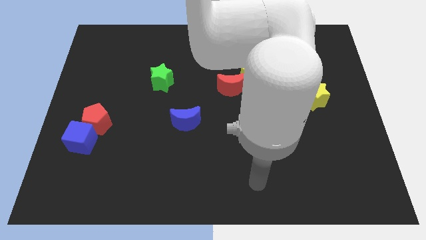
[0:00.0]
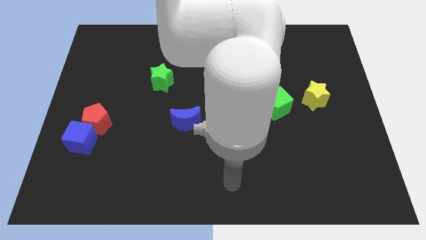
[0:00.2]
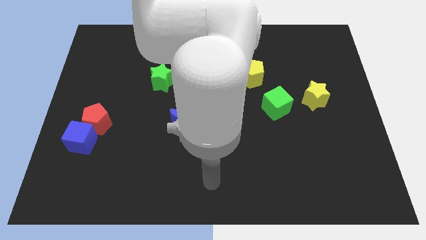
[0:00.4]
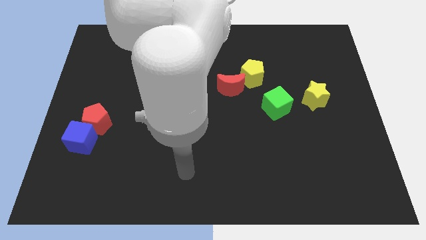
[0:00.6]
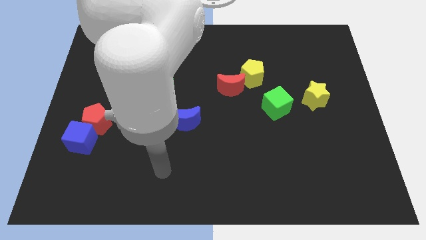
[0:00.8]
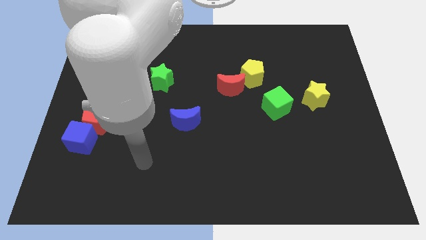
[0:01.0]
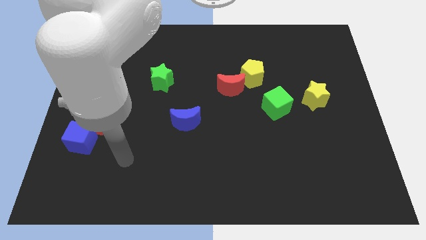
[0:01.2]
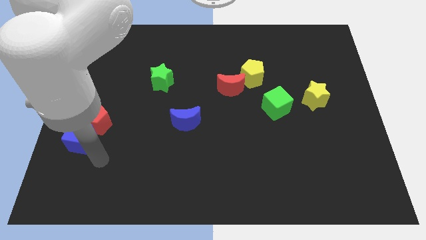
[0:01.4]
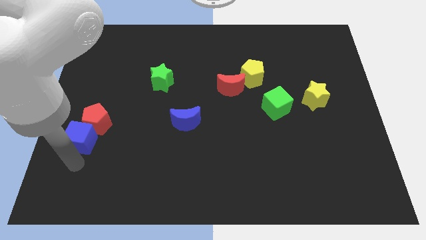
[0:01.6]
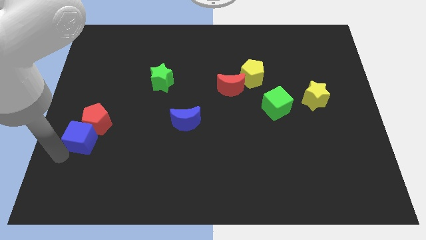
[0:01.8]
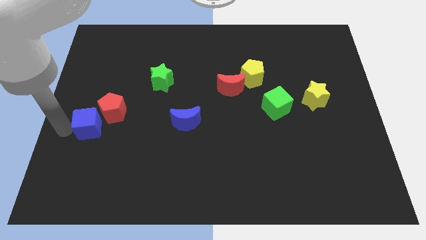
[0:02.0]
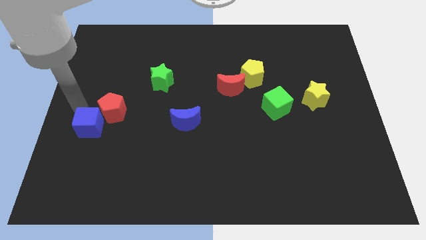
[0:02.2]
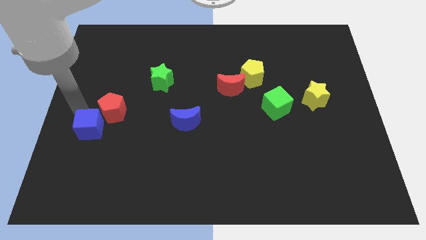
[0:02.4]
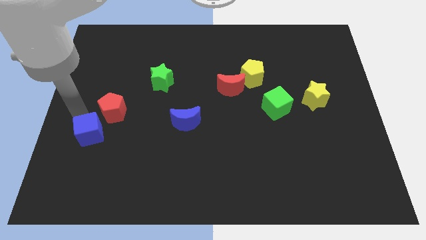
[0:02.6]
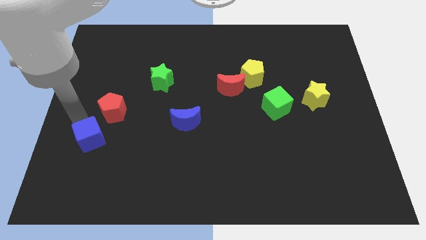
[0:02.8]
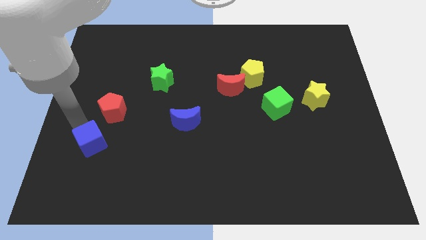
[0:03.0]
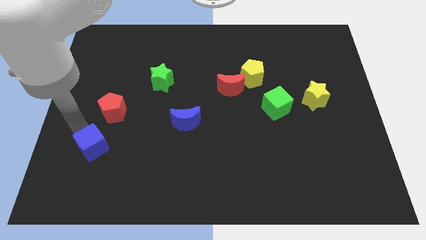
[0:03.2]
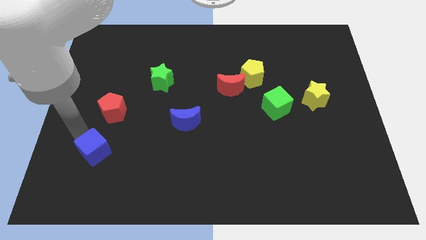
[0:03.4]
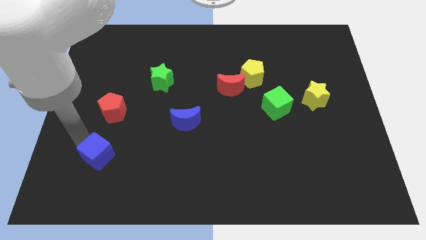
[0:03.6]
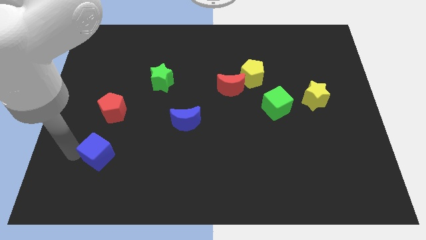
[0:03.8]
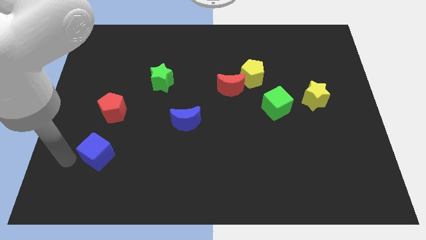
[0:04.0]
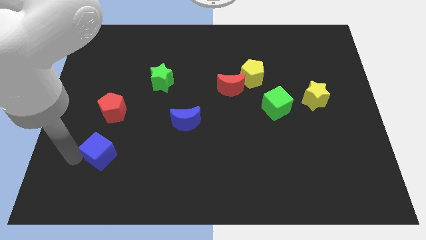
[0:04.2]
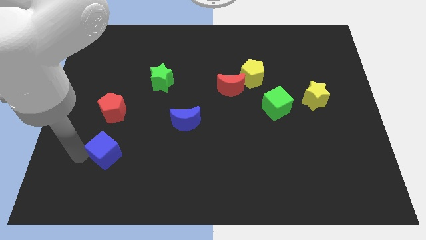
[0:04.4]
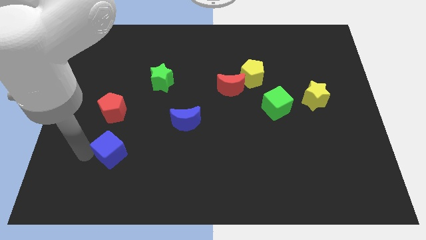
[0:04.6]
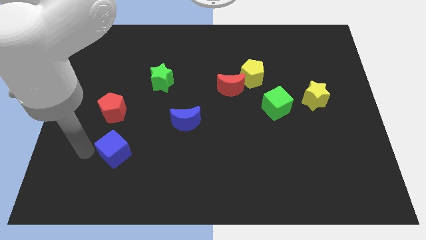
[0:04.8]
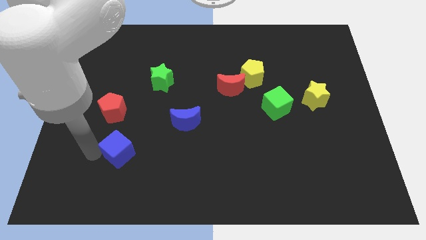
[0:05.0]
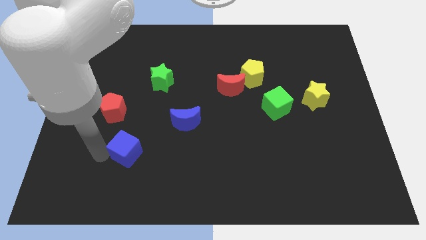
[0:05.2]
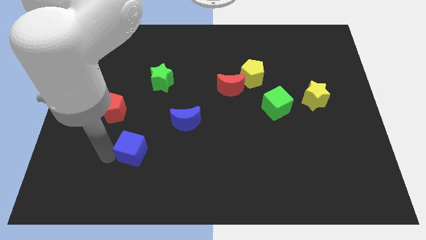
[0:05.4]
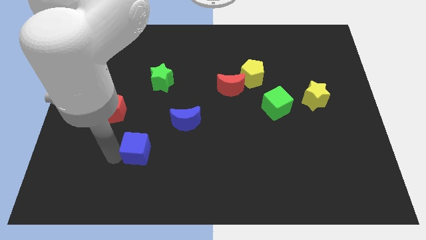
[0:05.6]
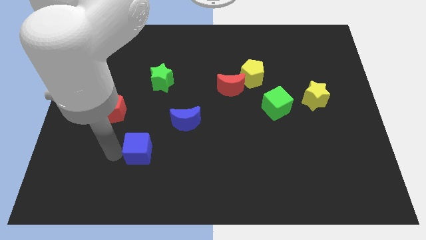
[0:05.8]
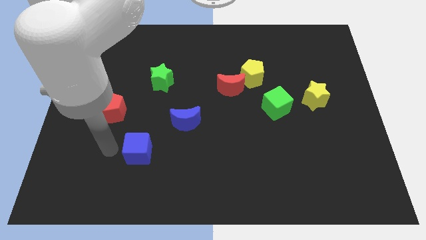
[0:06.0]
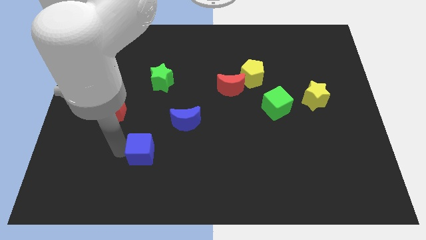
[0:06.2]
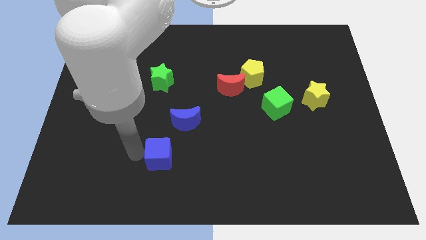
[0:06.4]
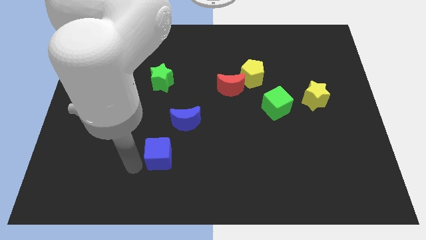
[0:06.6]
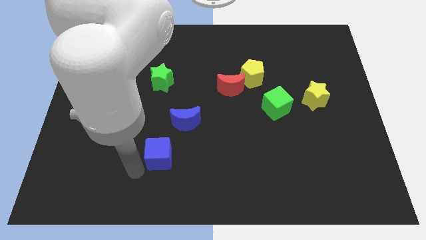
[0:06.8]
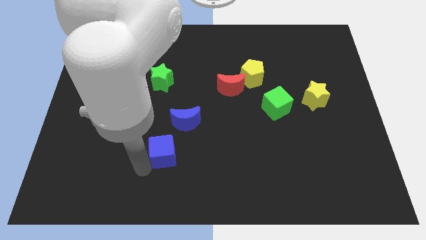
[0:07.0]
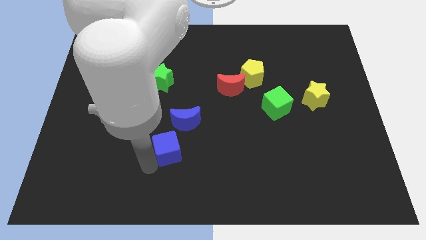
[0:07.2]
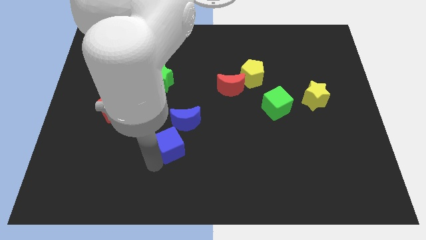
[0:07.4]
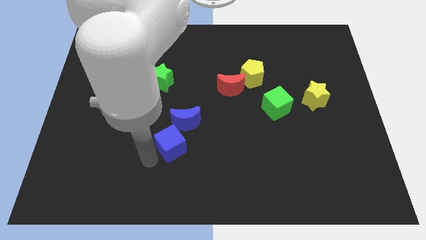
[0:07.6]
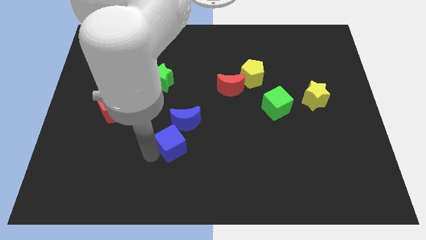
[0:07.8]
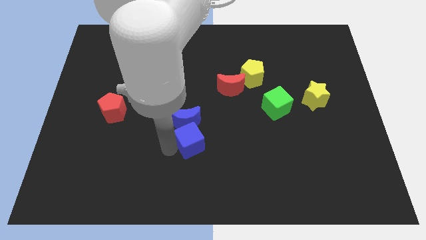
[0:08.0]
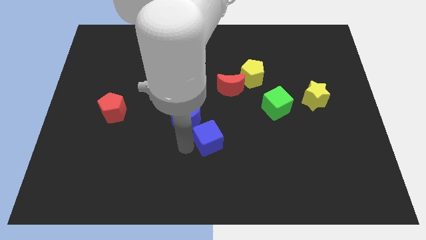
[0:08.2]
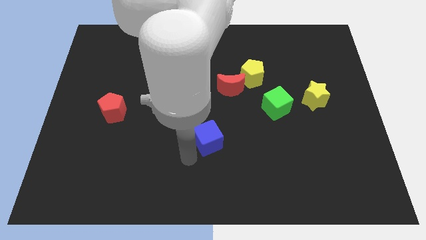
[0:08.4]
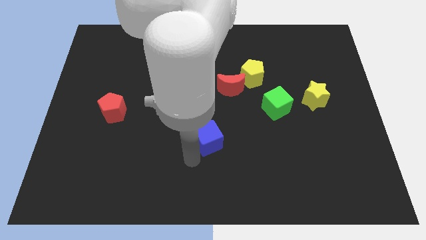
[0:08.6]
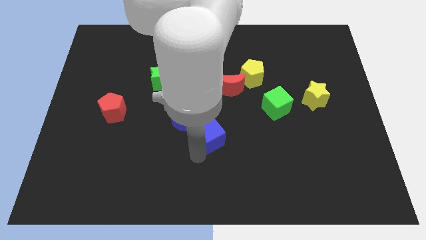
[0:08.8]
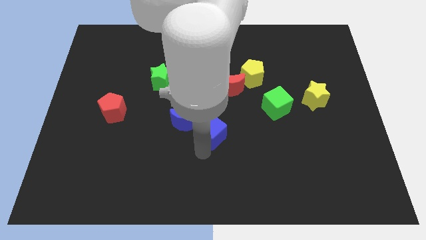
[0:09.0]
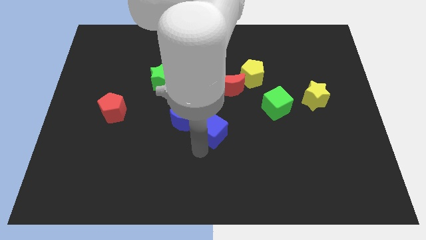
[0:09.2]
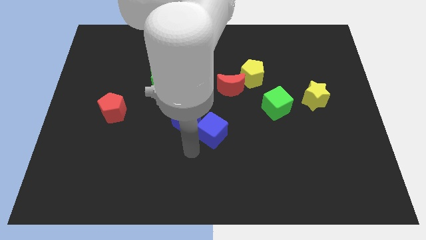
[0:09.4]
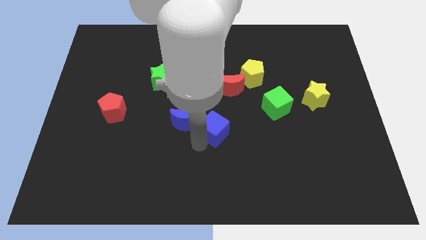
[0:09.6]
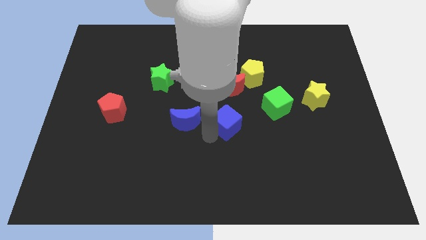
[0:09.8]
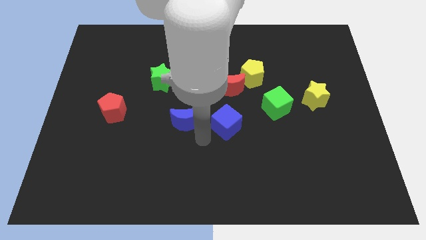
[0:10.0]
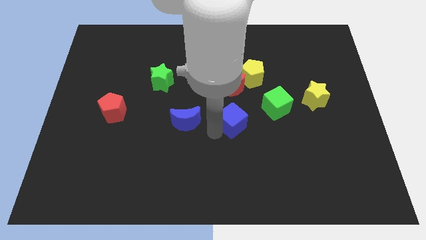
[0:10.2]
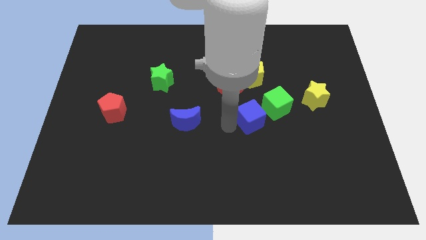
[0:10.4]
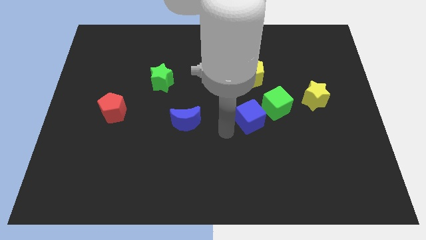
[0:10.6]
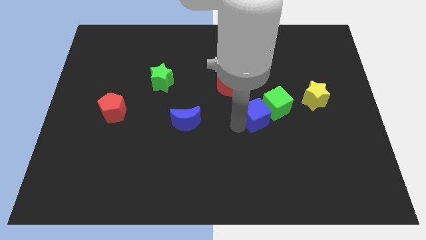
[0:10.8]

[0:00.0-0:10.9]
slide the blue cube towards the green cube

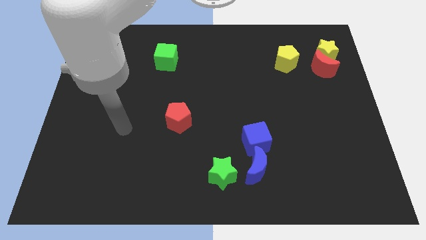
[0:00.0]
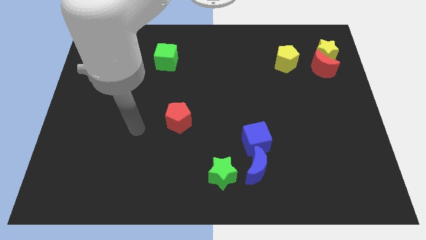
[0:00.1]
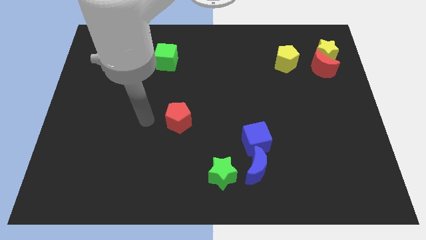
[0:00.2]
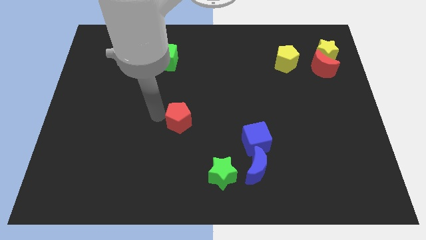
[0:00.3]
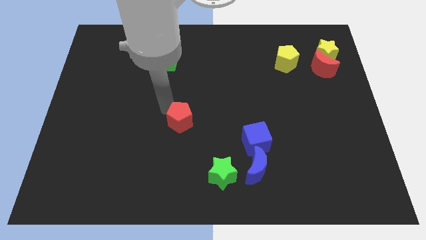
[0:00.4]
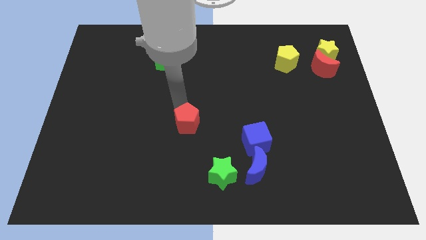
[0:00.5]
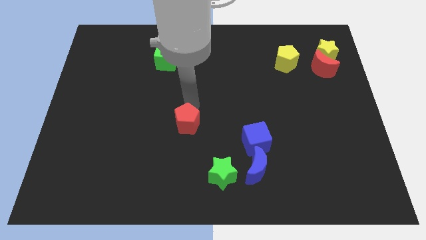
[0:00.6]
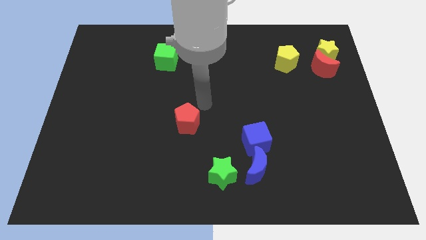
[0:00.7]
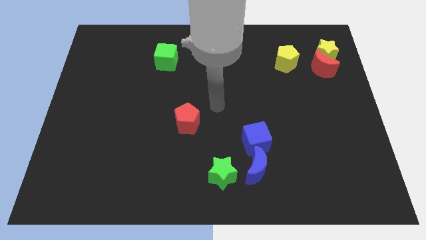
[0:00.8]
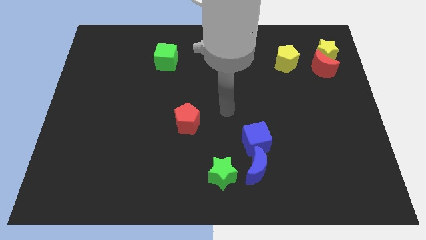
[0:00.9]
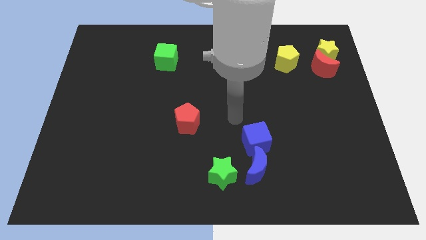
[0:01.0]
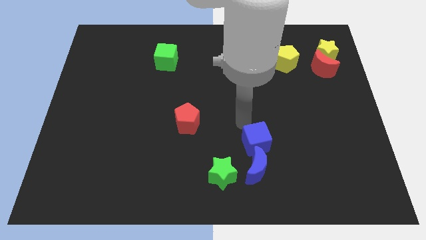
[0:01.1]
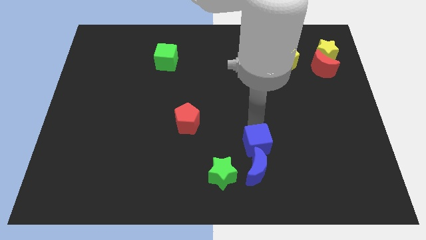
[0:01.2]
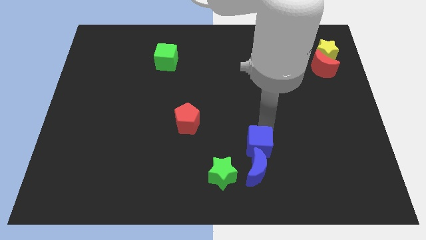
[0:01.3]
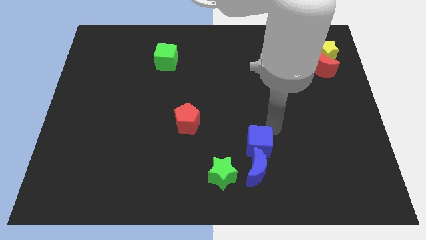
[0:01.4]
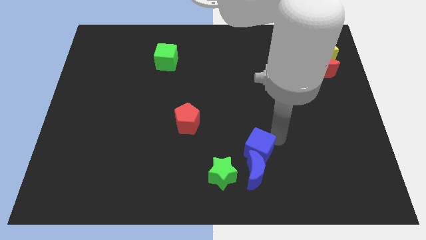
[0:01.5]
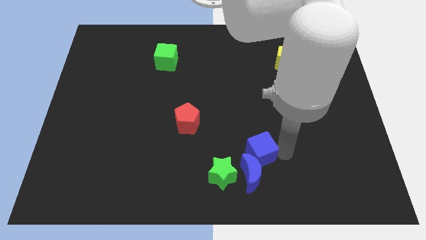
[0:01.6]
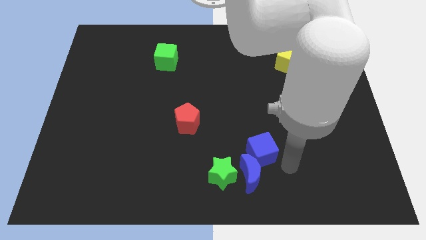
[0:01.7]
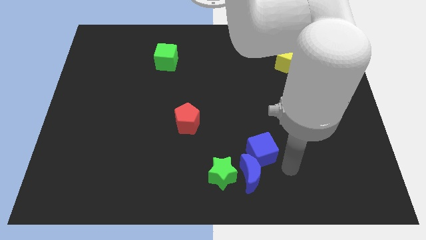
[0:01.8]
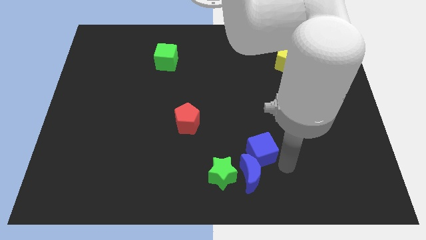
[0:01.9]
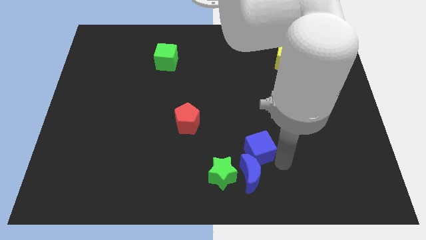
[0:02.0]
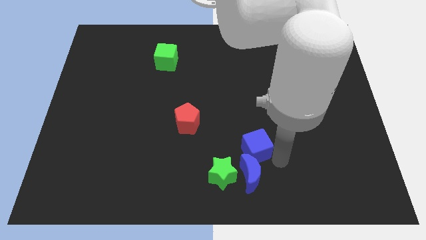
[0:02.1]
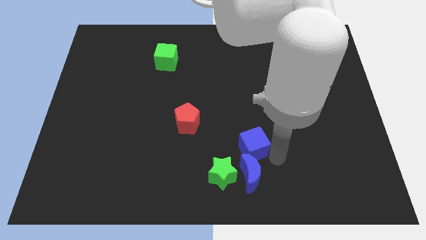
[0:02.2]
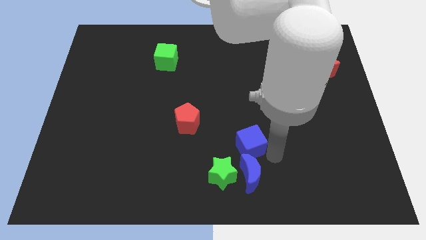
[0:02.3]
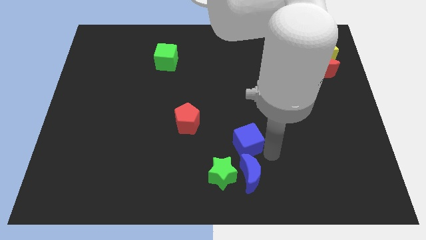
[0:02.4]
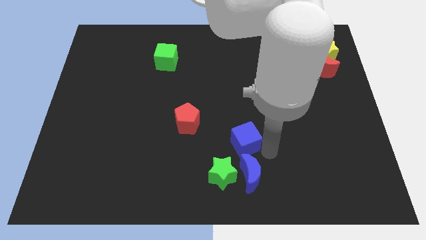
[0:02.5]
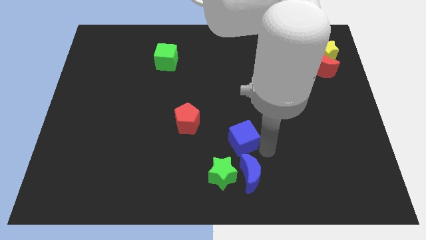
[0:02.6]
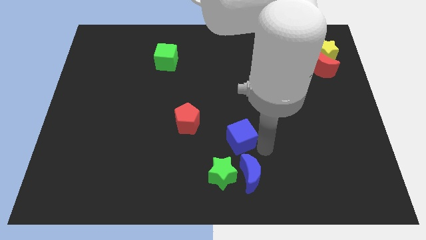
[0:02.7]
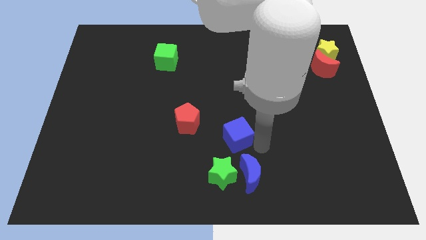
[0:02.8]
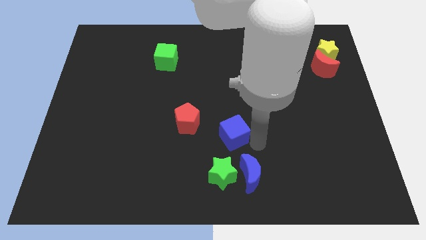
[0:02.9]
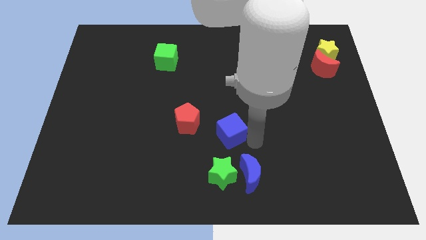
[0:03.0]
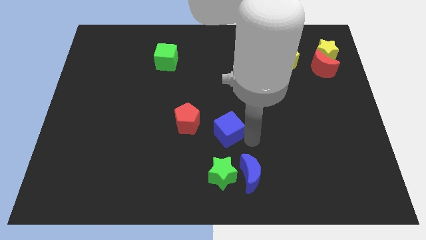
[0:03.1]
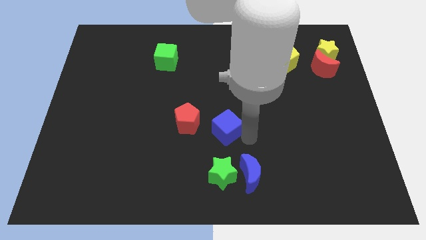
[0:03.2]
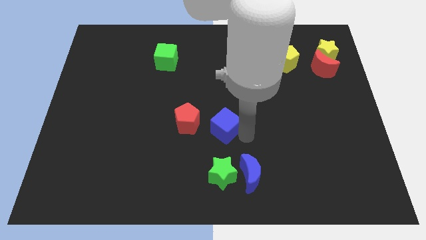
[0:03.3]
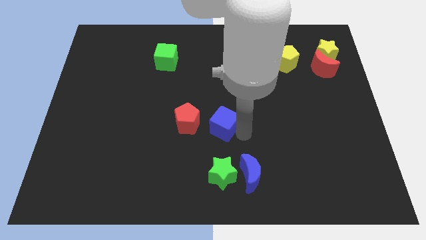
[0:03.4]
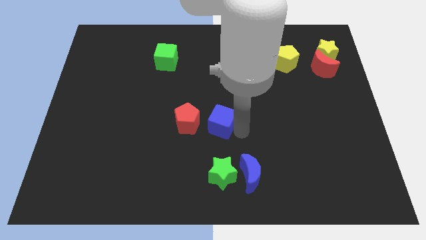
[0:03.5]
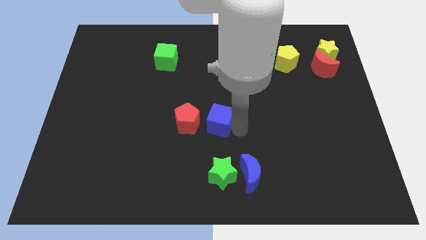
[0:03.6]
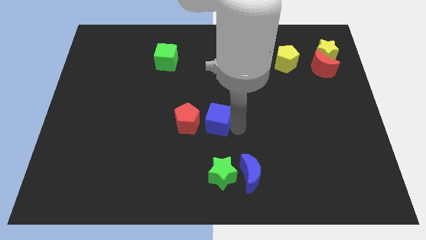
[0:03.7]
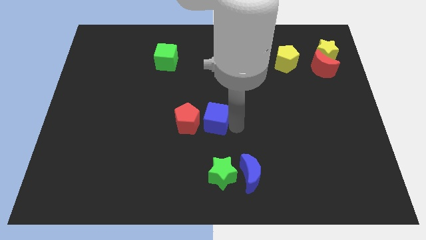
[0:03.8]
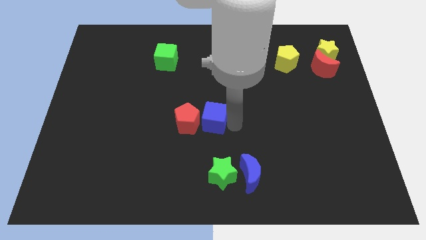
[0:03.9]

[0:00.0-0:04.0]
slide the blue cube close to the red pentagon
